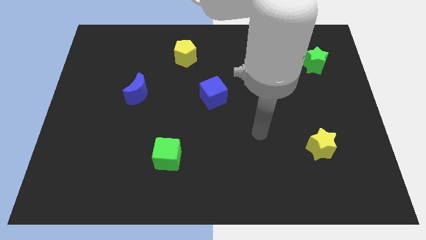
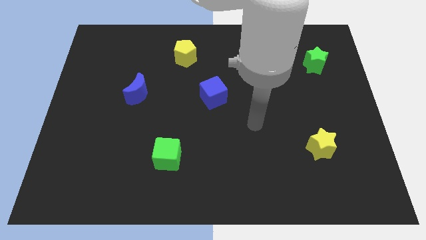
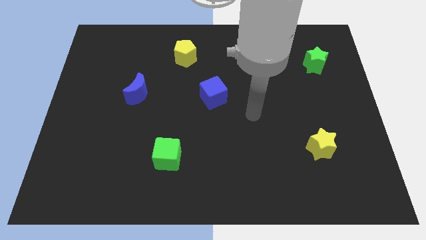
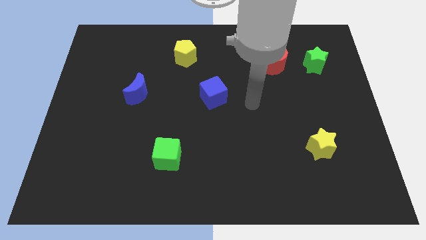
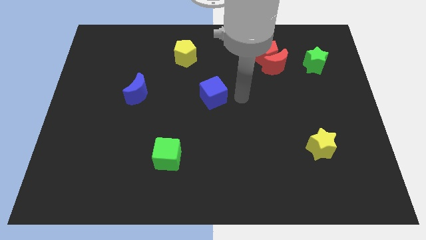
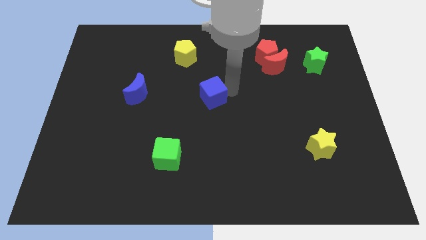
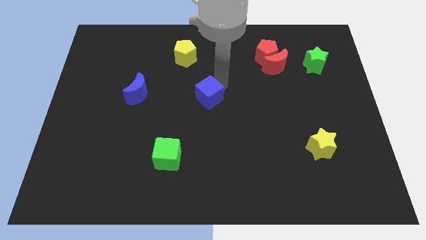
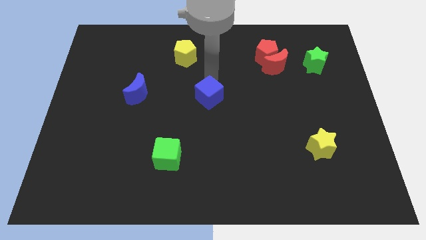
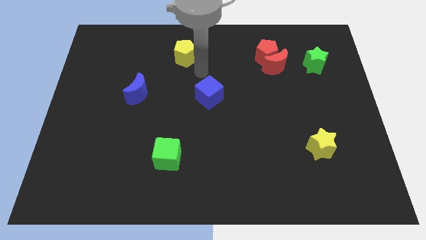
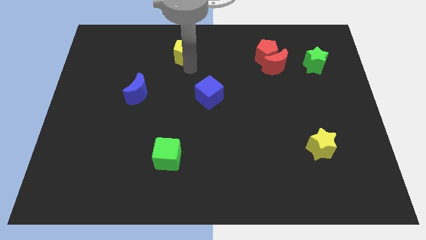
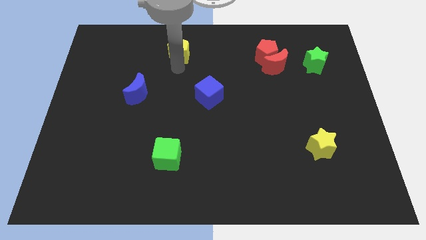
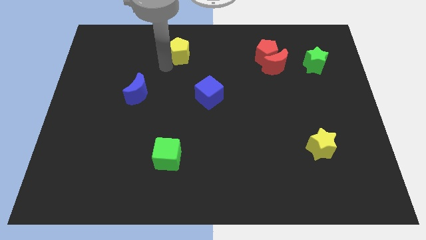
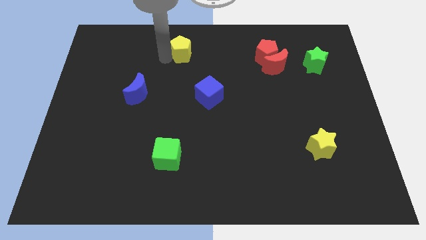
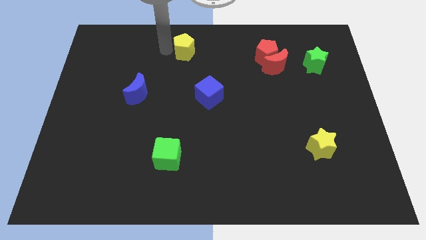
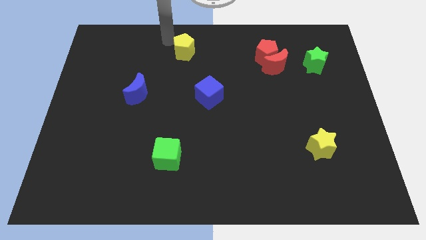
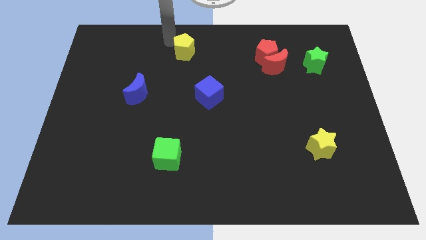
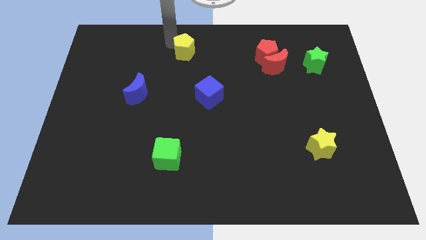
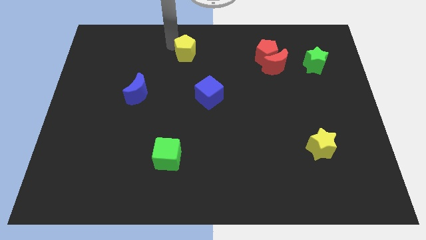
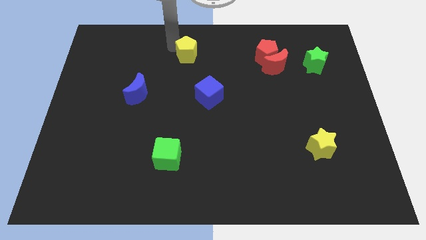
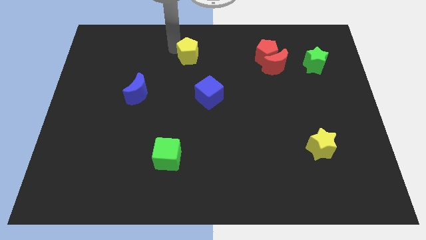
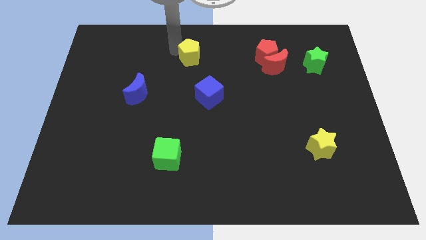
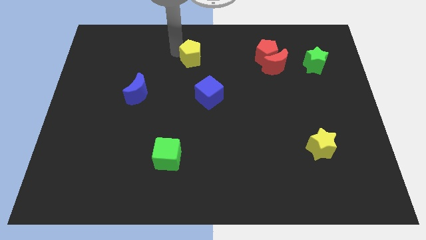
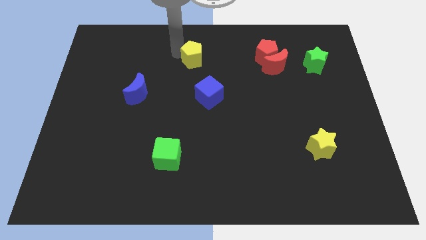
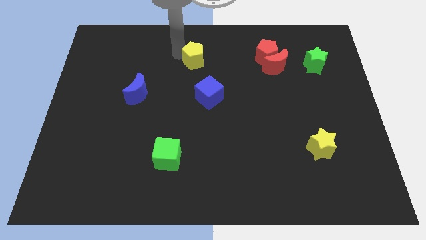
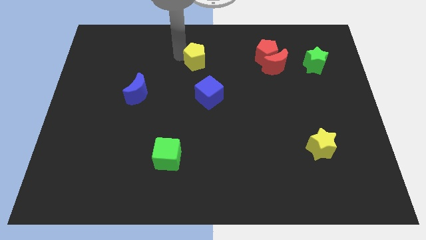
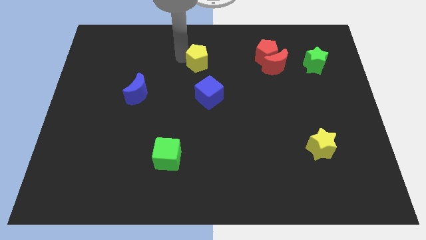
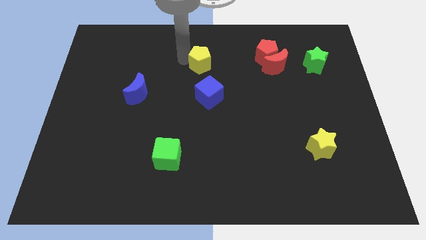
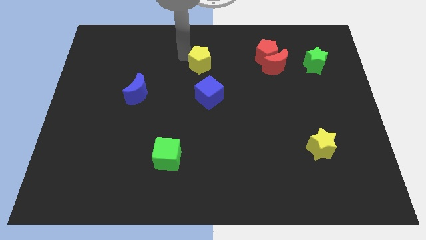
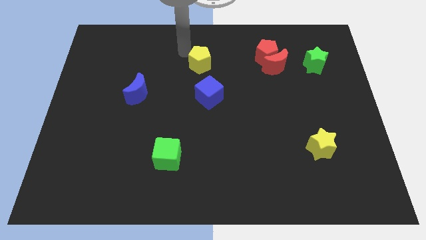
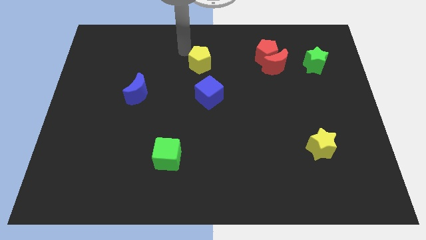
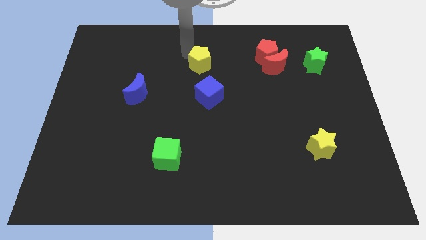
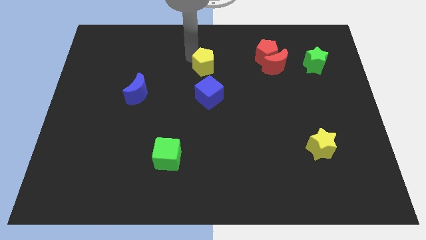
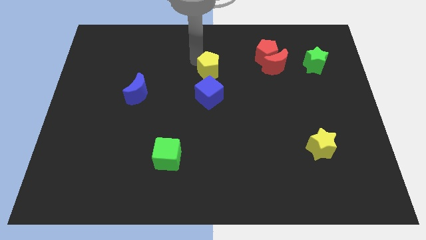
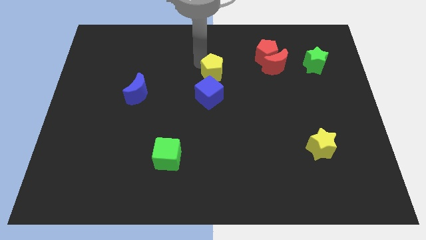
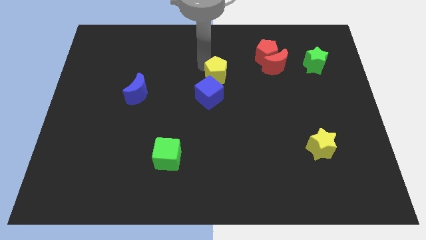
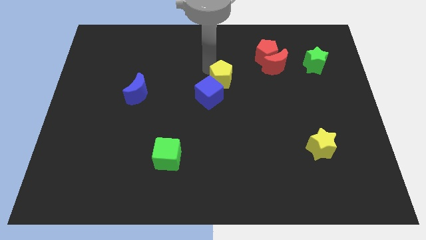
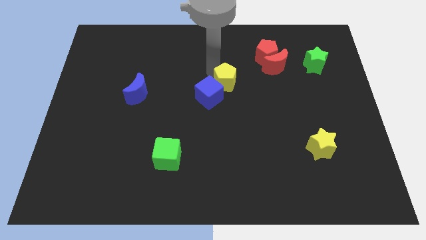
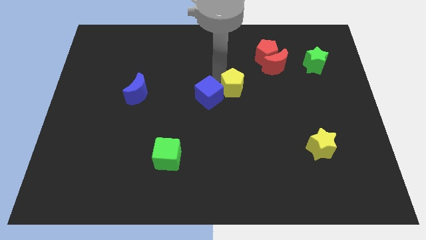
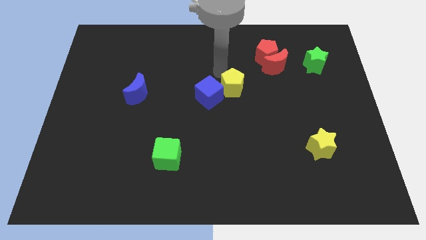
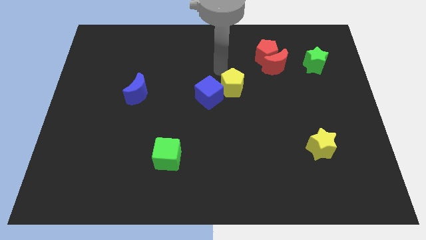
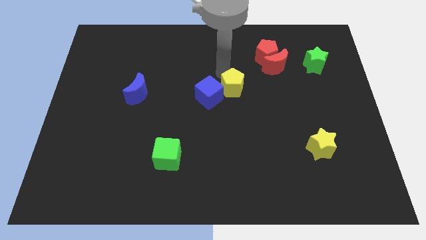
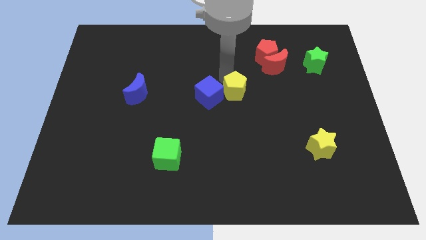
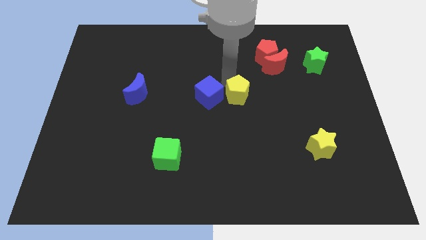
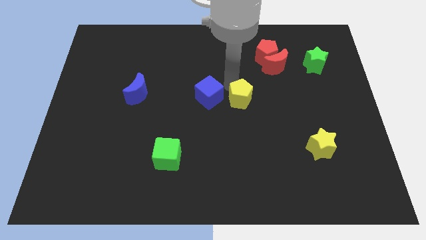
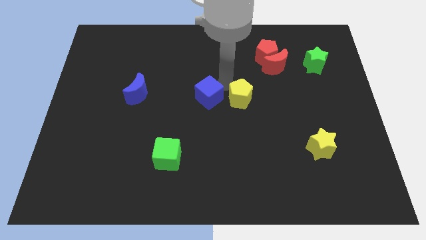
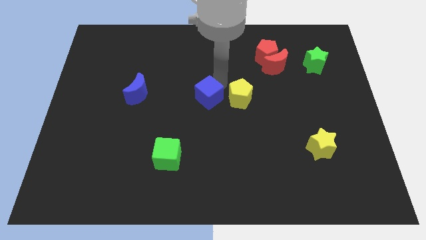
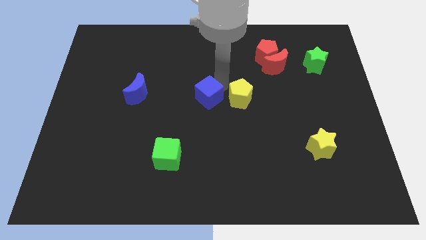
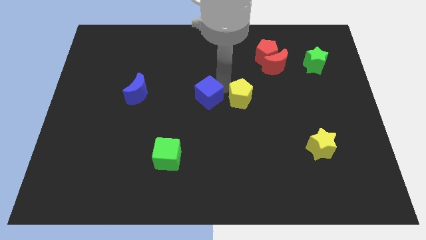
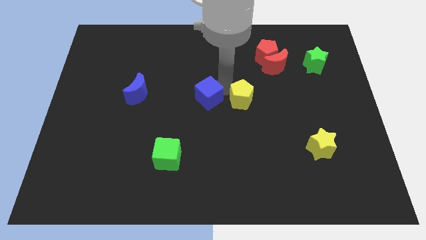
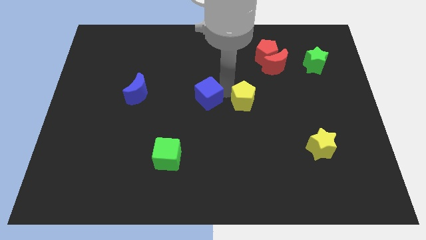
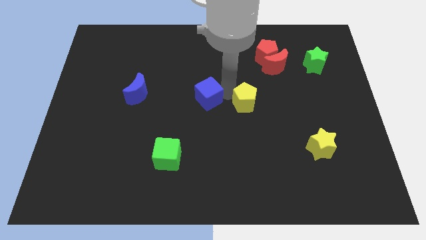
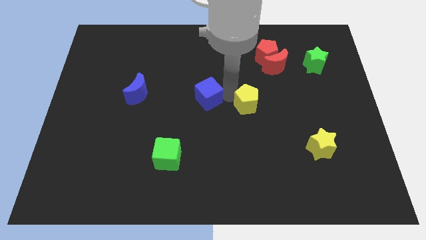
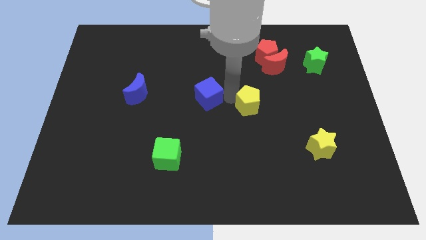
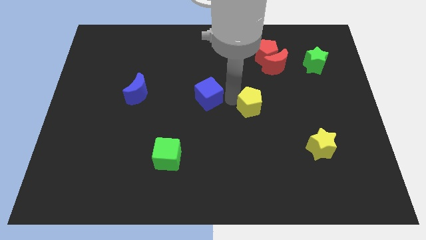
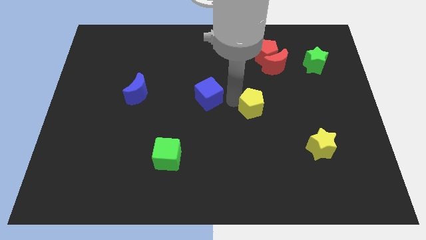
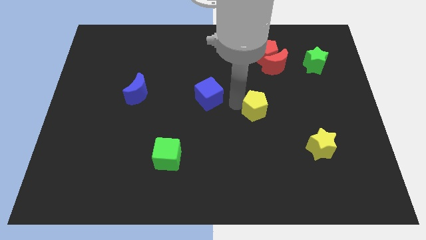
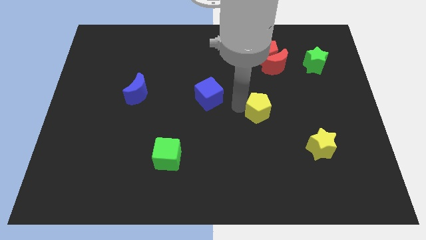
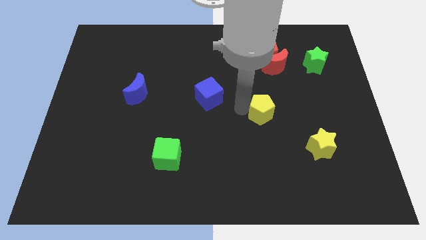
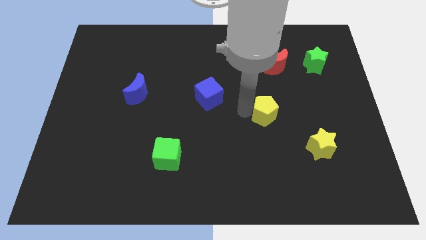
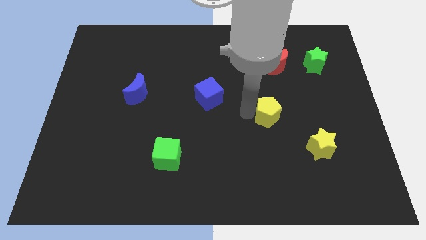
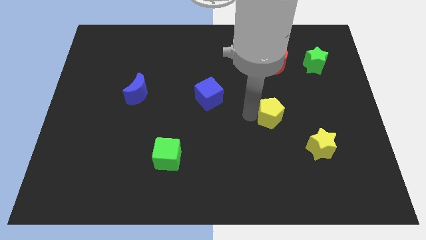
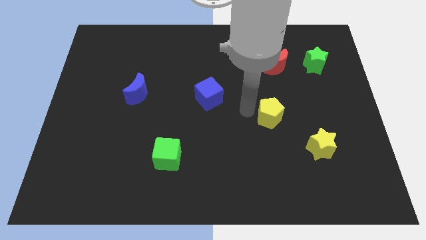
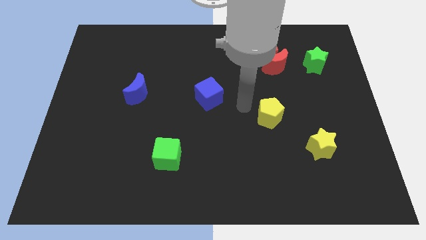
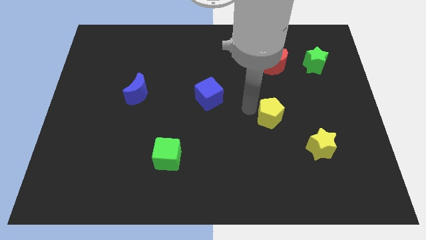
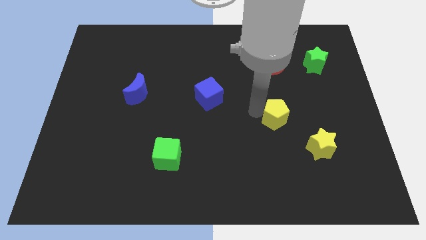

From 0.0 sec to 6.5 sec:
put the yellow pentagon to the top left of the yellow star

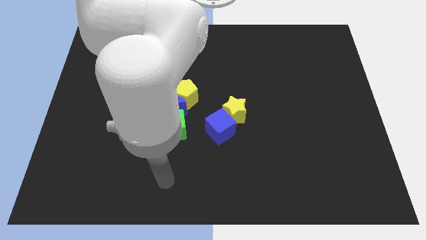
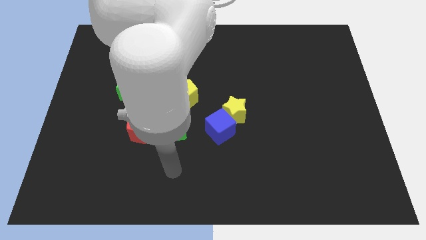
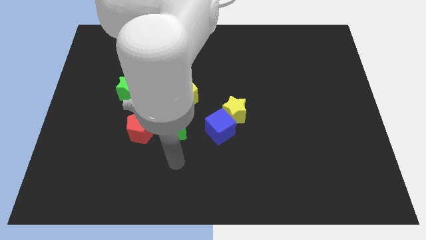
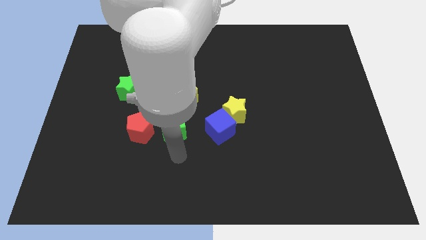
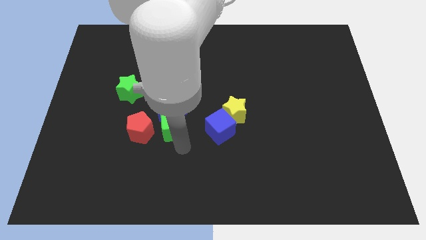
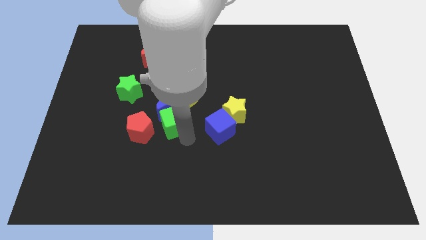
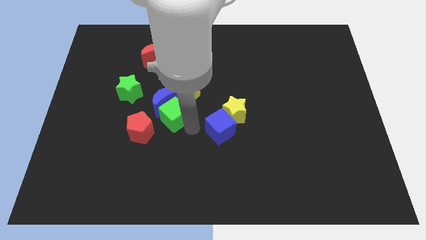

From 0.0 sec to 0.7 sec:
slide the blue moon to the top of the red pentagon

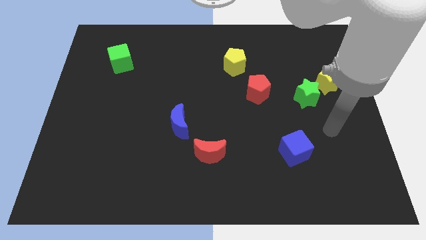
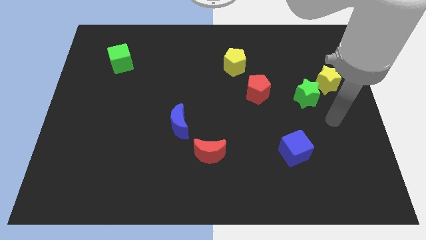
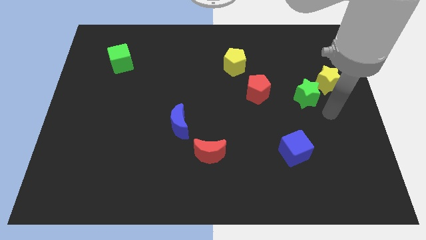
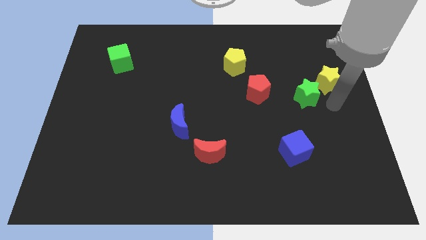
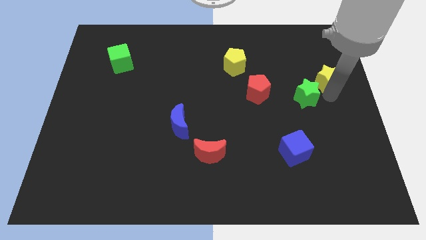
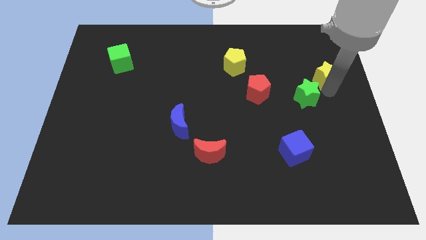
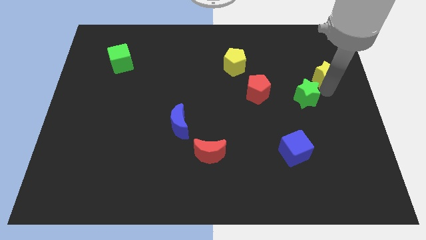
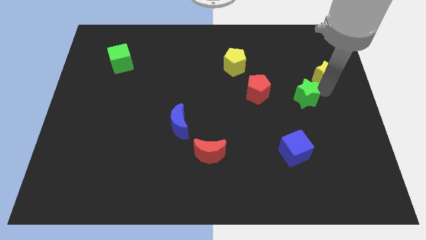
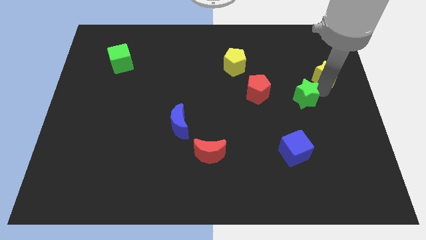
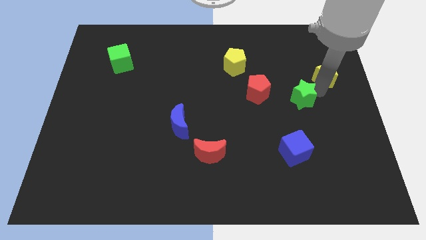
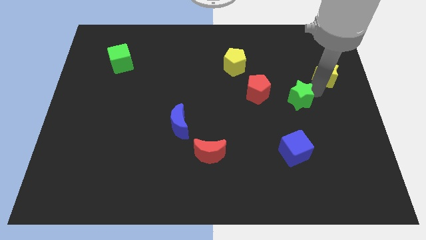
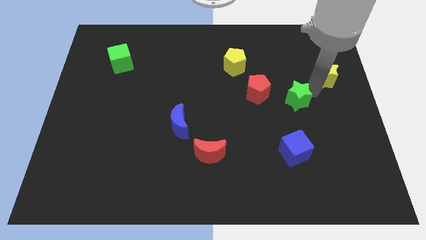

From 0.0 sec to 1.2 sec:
push the green star to the bottom right side of the red pentagon
